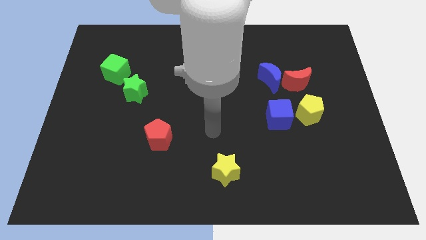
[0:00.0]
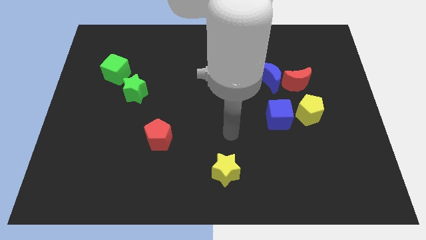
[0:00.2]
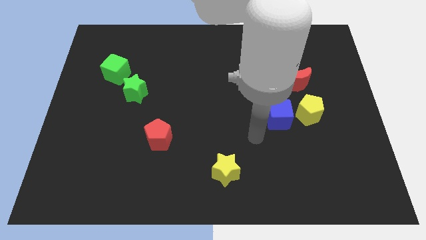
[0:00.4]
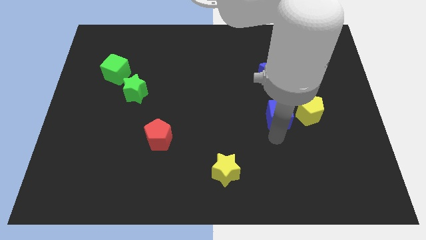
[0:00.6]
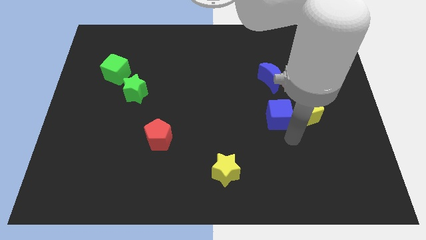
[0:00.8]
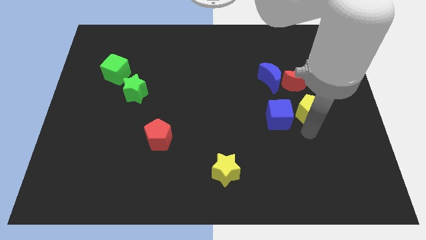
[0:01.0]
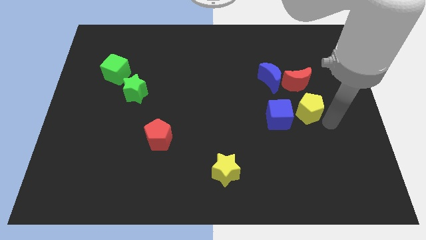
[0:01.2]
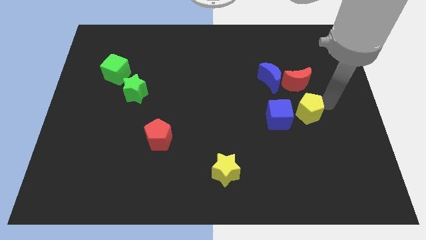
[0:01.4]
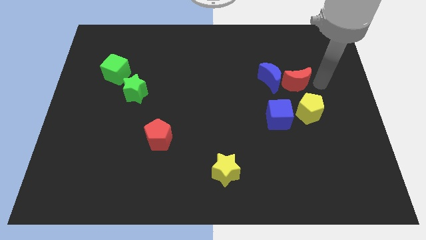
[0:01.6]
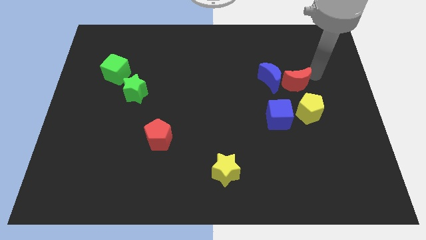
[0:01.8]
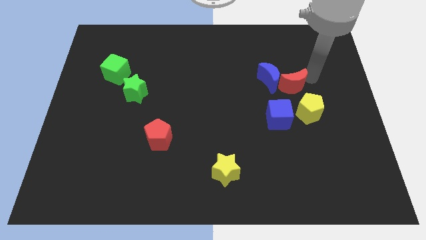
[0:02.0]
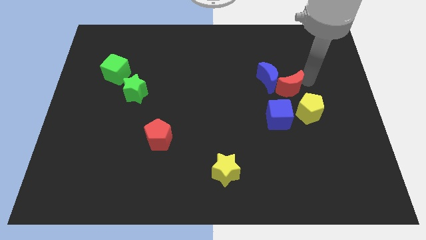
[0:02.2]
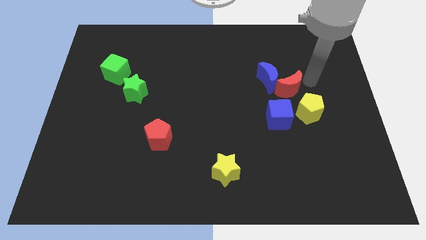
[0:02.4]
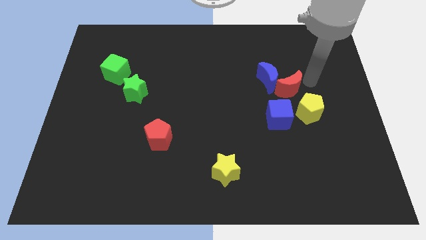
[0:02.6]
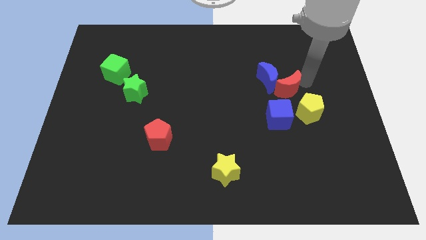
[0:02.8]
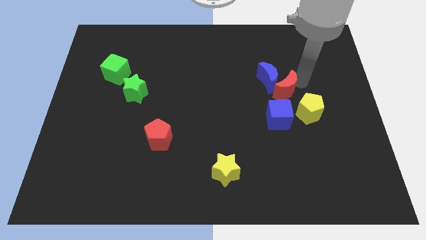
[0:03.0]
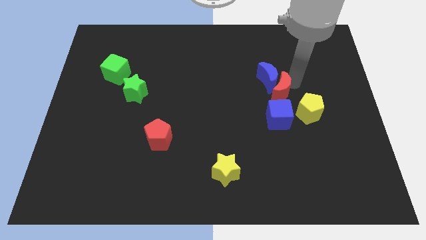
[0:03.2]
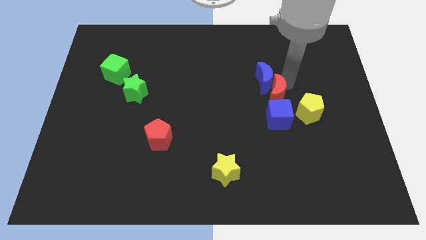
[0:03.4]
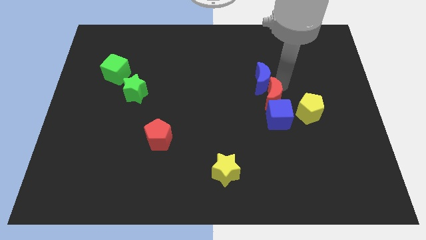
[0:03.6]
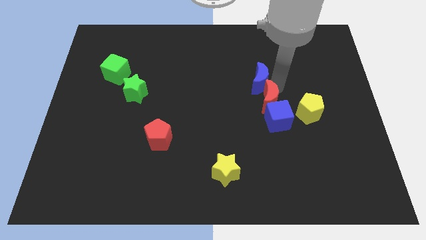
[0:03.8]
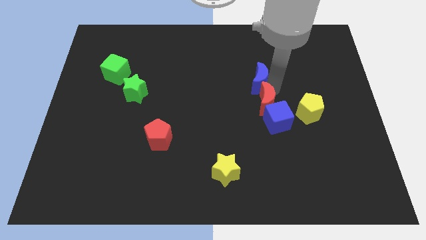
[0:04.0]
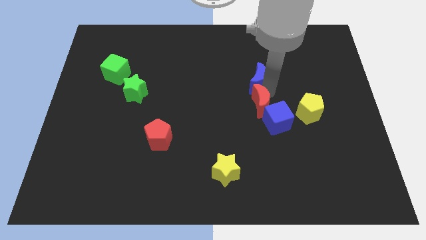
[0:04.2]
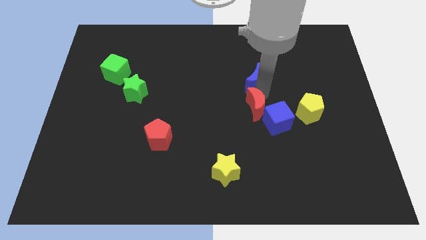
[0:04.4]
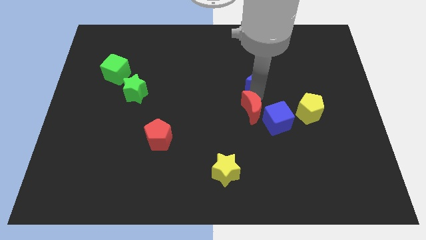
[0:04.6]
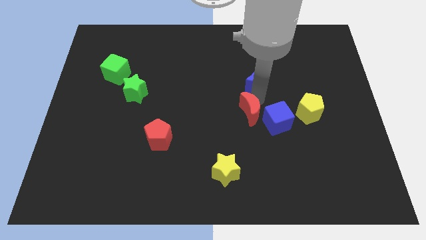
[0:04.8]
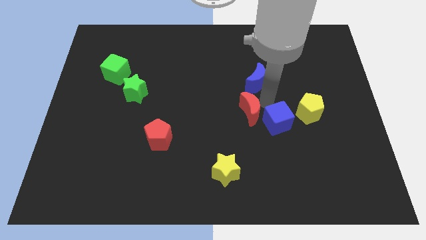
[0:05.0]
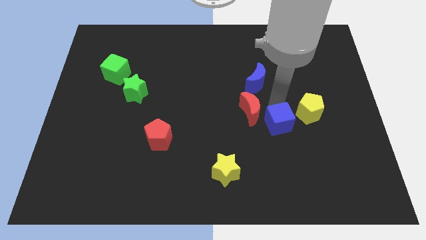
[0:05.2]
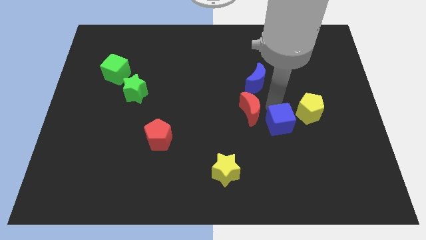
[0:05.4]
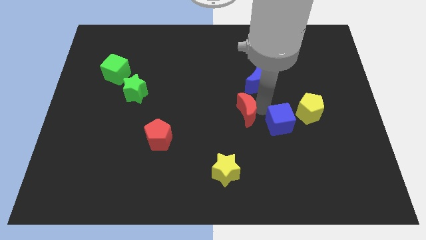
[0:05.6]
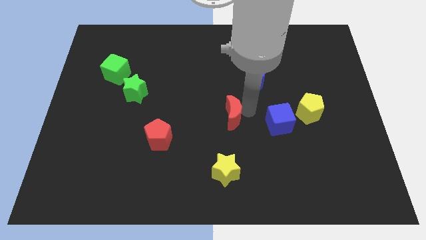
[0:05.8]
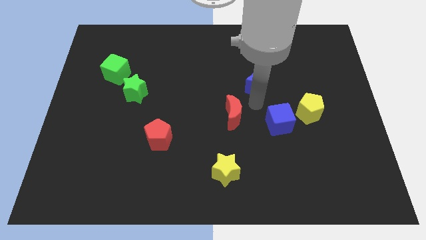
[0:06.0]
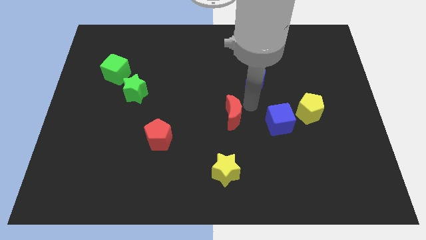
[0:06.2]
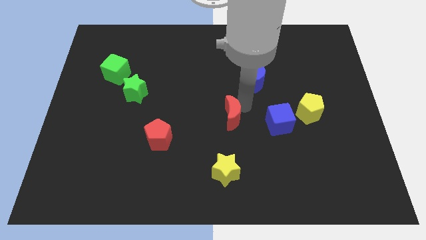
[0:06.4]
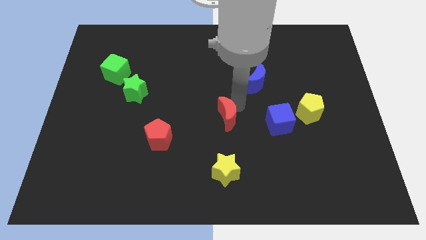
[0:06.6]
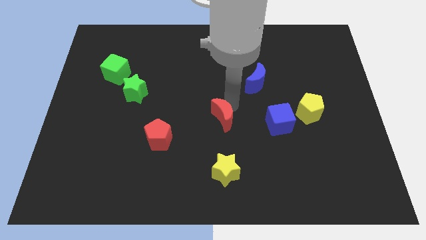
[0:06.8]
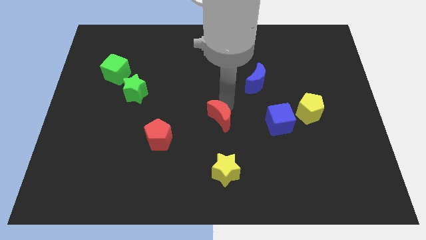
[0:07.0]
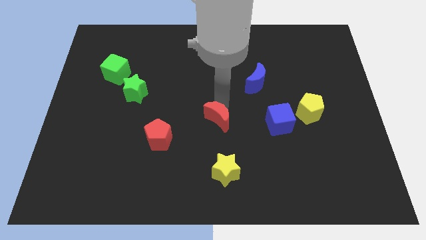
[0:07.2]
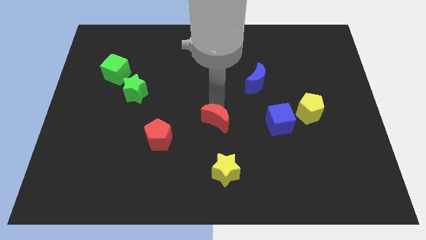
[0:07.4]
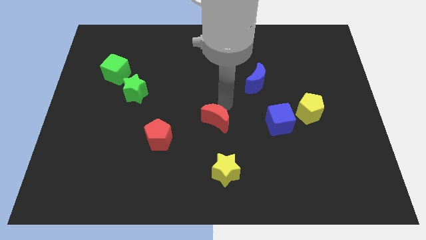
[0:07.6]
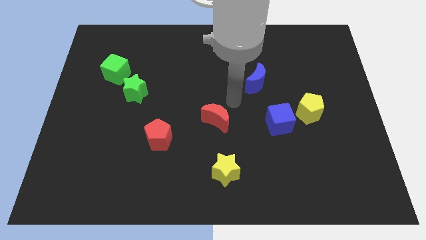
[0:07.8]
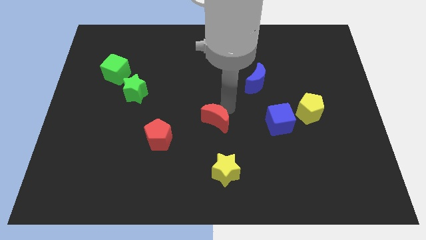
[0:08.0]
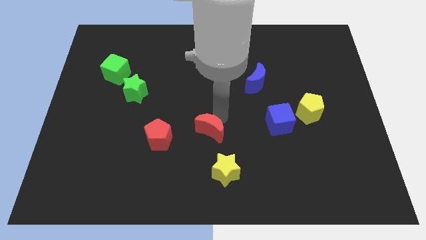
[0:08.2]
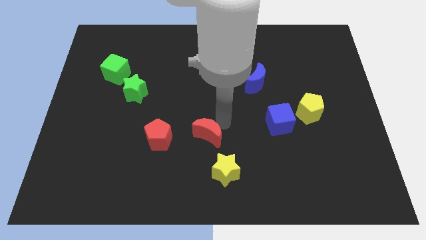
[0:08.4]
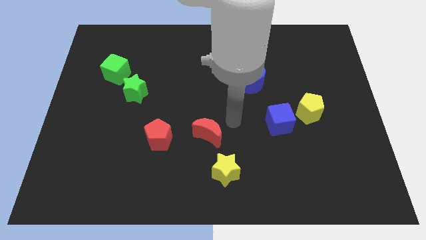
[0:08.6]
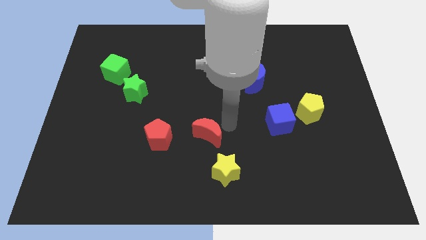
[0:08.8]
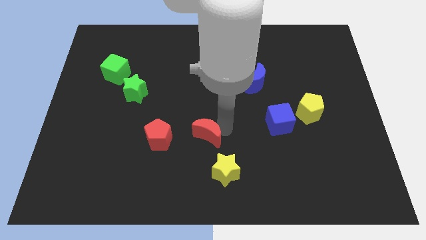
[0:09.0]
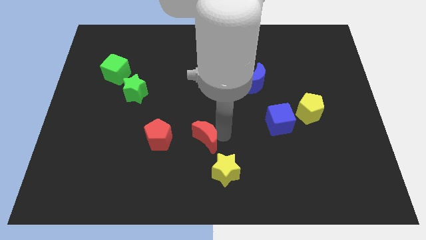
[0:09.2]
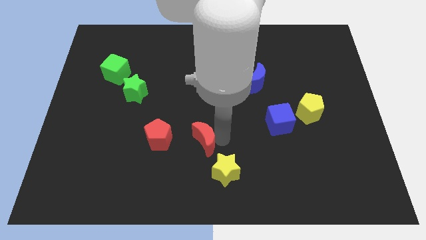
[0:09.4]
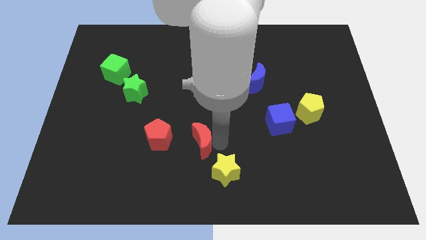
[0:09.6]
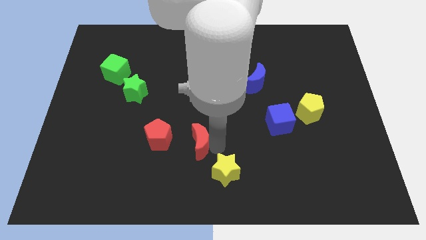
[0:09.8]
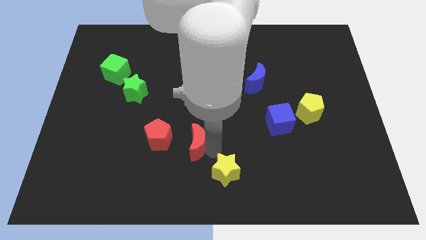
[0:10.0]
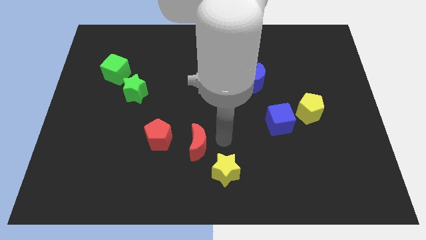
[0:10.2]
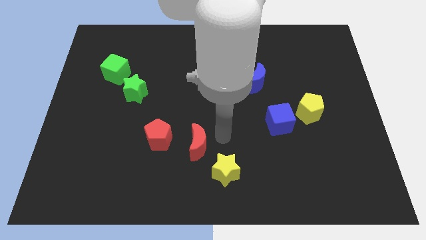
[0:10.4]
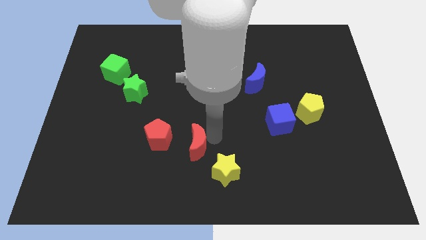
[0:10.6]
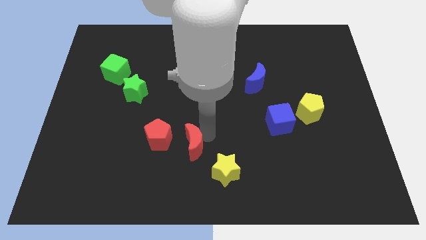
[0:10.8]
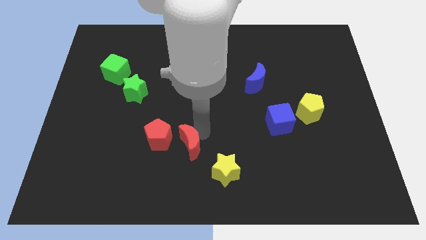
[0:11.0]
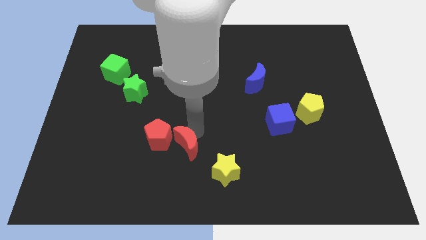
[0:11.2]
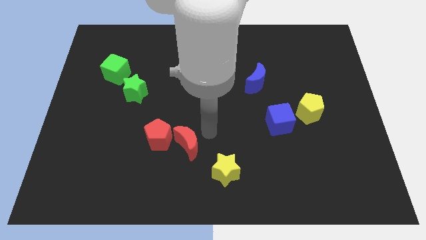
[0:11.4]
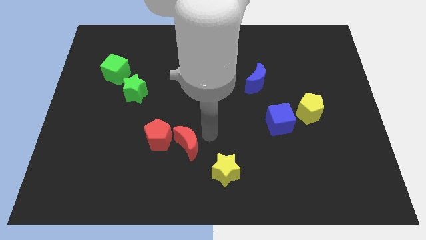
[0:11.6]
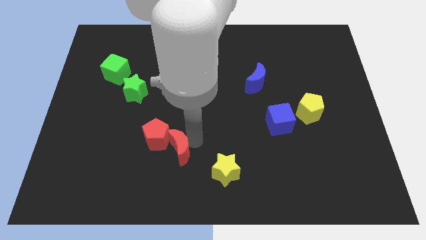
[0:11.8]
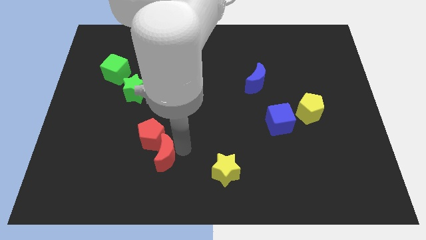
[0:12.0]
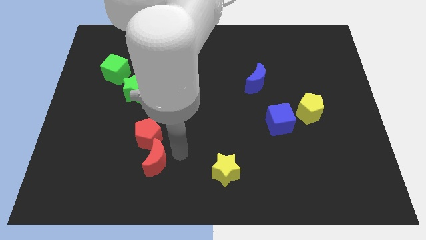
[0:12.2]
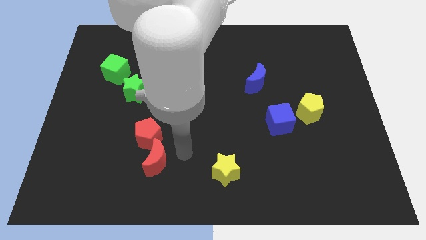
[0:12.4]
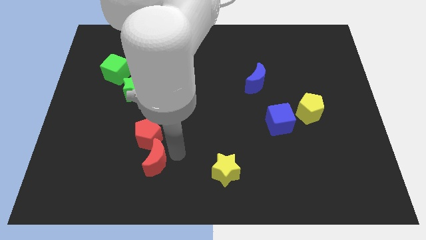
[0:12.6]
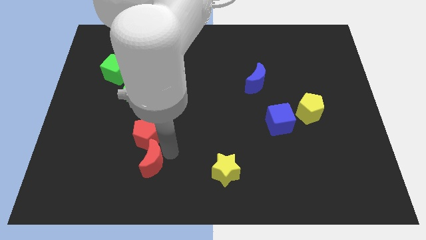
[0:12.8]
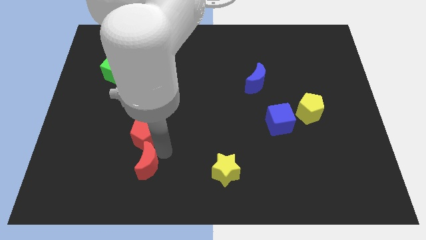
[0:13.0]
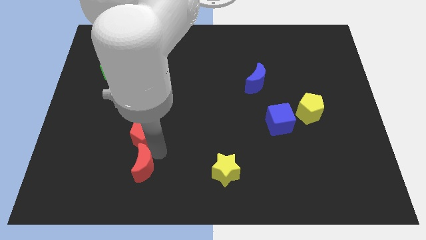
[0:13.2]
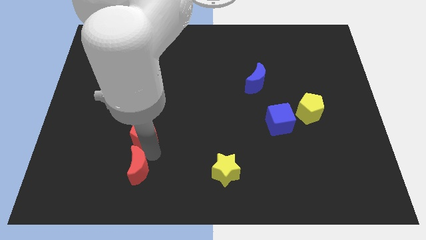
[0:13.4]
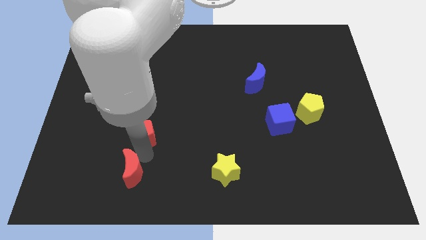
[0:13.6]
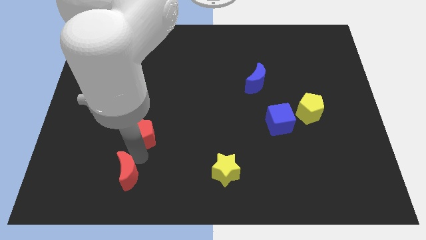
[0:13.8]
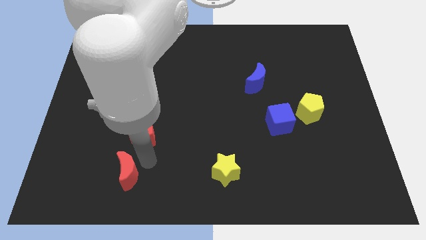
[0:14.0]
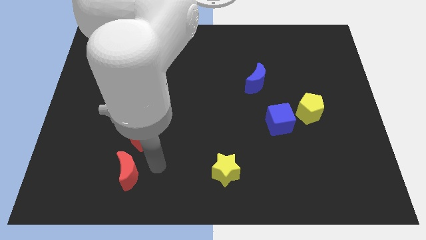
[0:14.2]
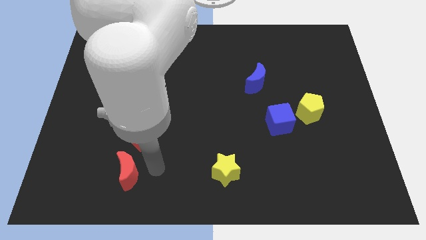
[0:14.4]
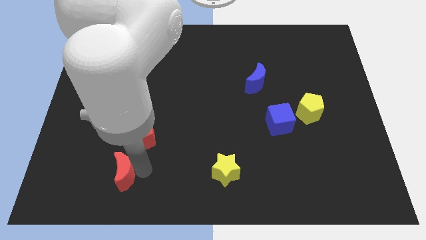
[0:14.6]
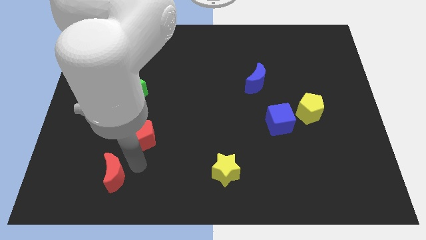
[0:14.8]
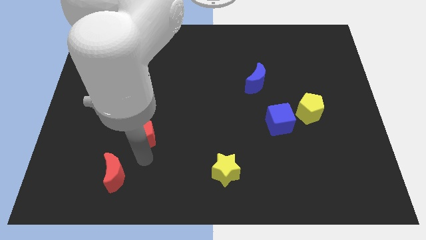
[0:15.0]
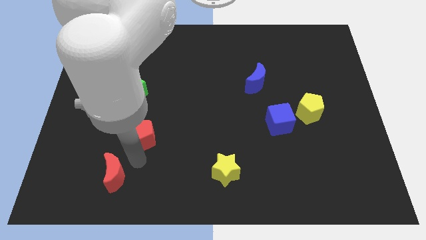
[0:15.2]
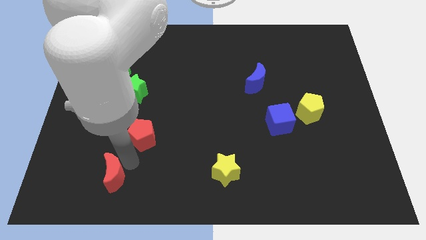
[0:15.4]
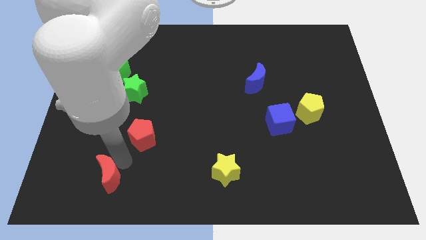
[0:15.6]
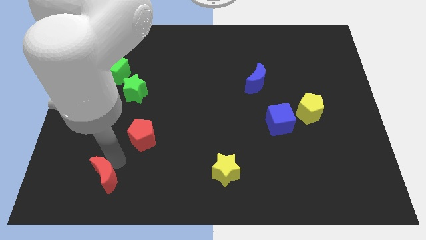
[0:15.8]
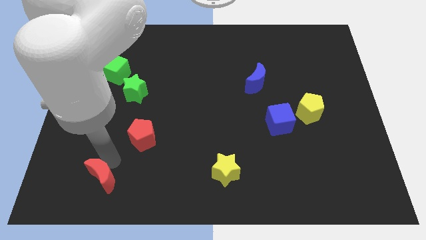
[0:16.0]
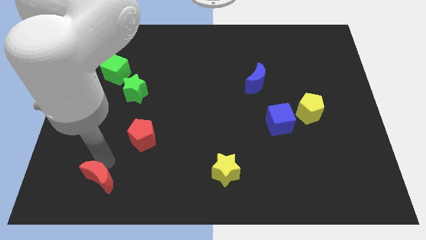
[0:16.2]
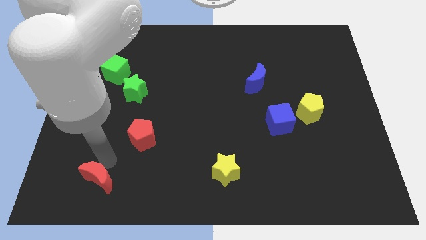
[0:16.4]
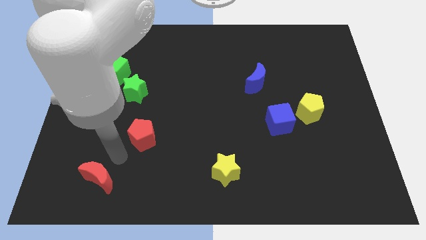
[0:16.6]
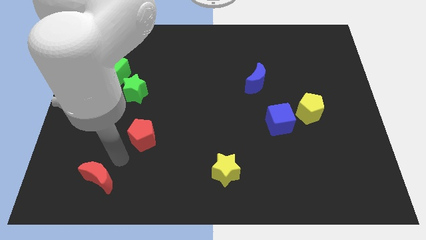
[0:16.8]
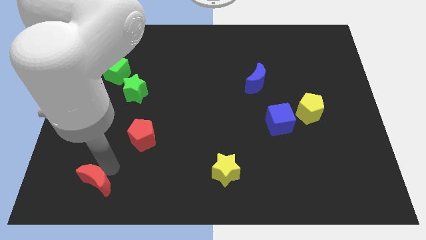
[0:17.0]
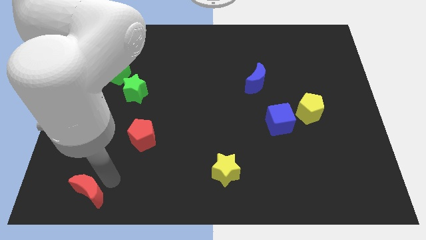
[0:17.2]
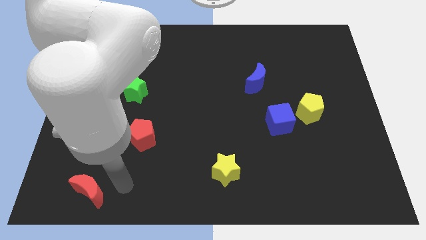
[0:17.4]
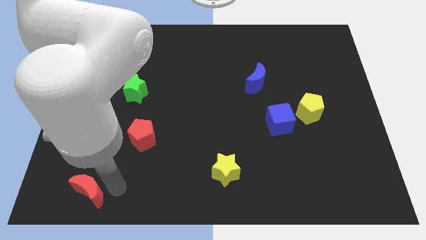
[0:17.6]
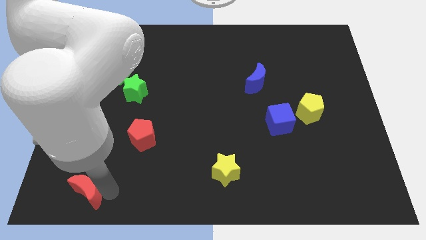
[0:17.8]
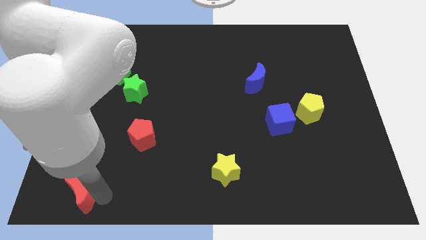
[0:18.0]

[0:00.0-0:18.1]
put the red moon to the lower left corner
